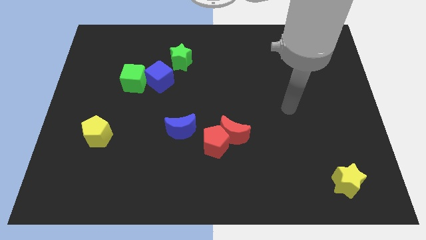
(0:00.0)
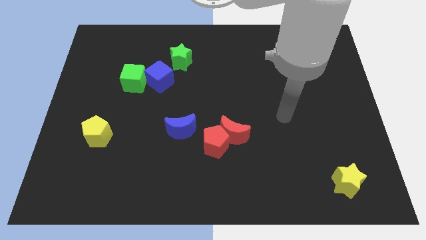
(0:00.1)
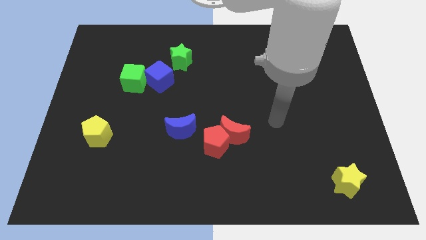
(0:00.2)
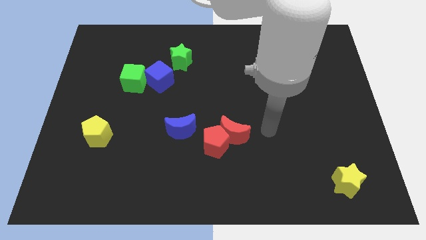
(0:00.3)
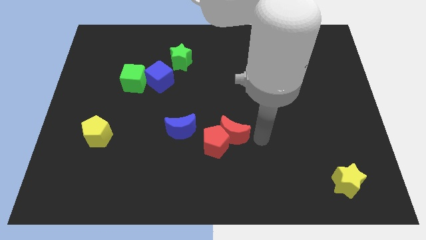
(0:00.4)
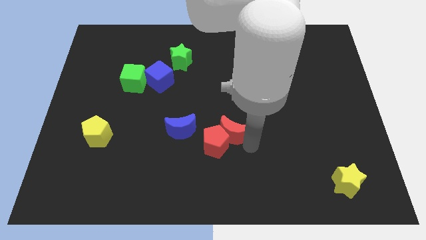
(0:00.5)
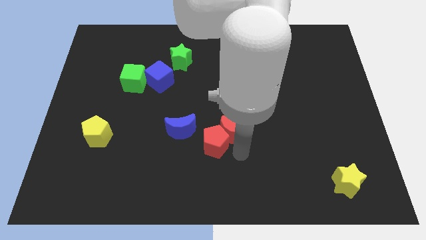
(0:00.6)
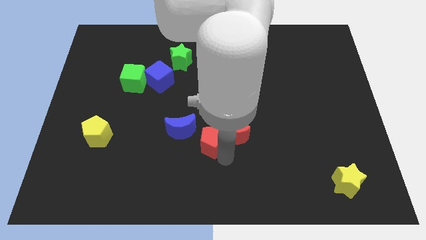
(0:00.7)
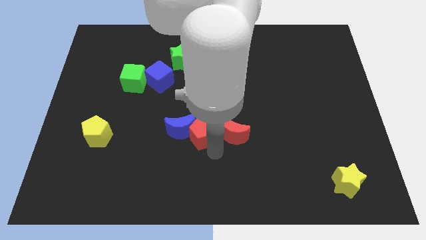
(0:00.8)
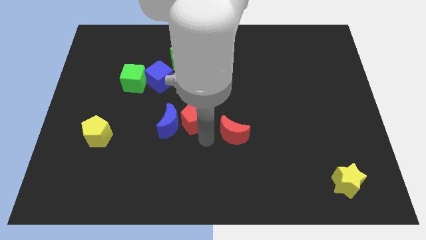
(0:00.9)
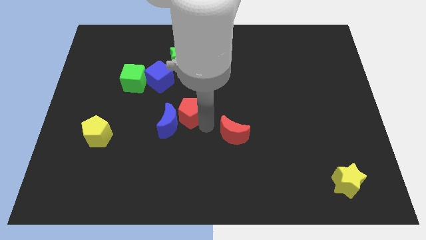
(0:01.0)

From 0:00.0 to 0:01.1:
separate the red moon from the red pentagon

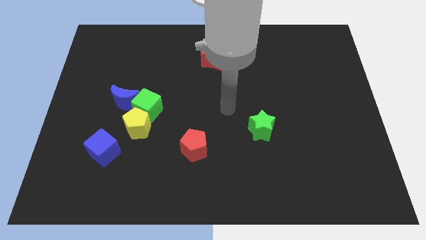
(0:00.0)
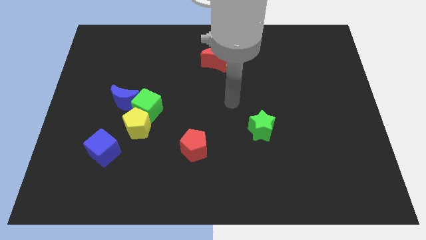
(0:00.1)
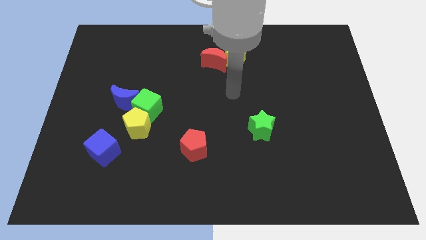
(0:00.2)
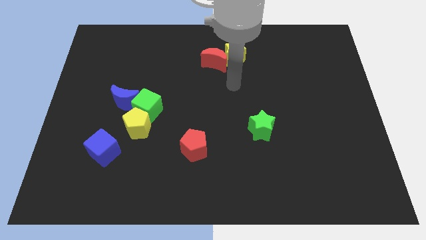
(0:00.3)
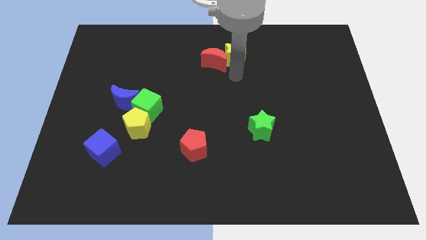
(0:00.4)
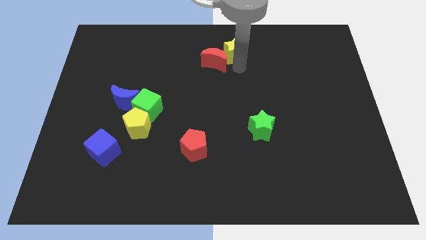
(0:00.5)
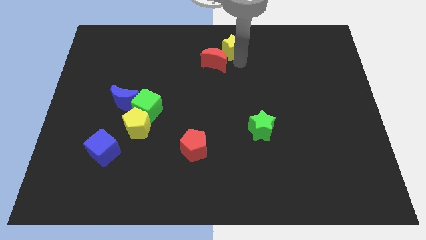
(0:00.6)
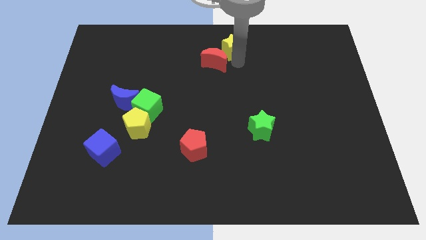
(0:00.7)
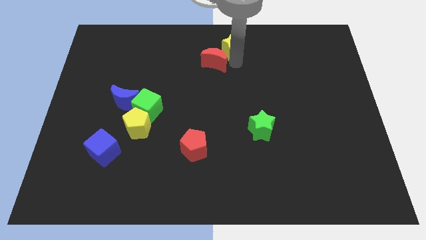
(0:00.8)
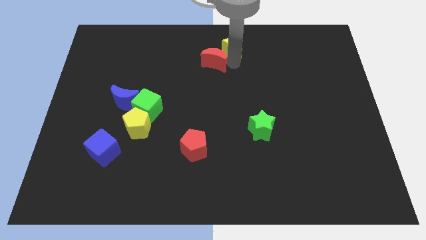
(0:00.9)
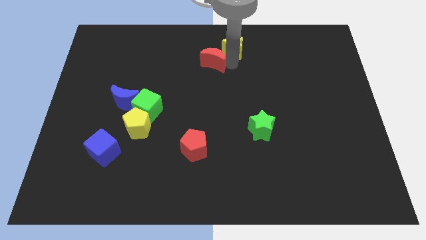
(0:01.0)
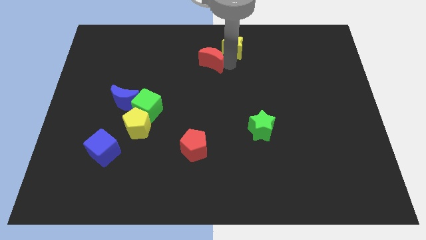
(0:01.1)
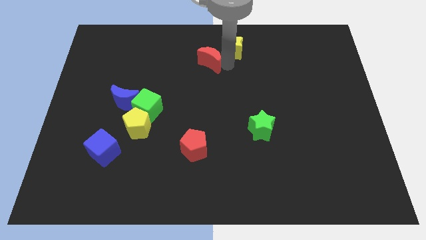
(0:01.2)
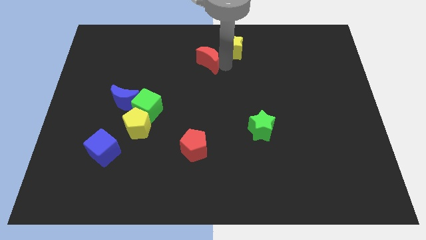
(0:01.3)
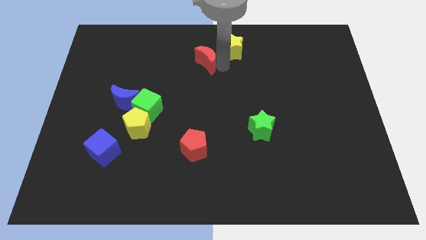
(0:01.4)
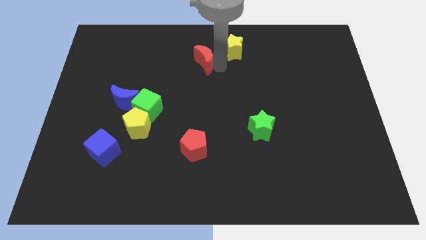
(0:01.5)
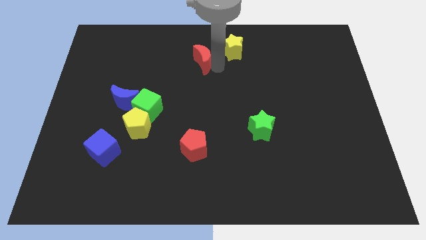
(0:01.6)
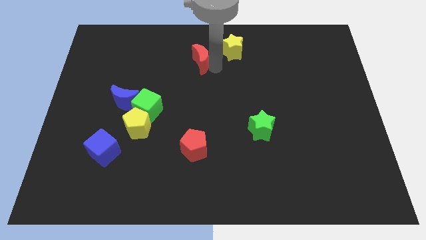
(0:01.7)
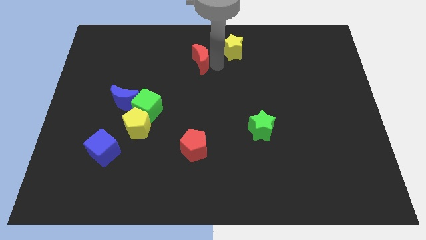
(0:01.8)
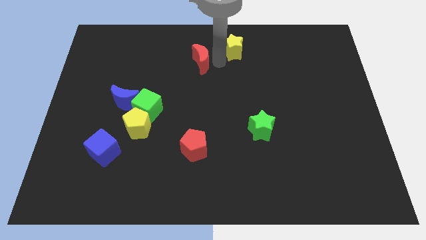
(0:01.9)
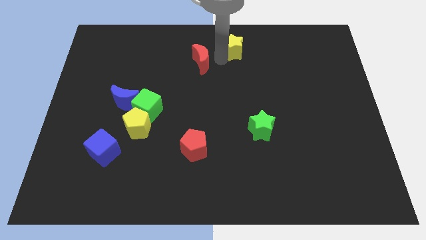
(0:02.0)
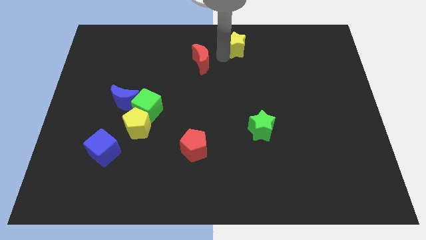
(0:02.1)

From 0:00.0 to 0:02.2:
separate the red moon from the yellow star

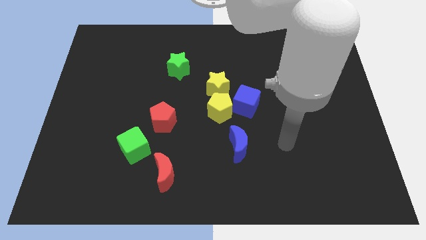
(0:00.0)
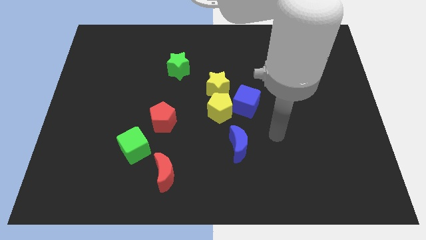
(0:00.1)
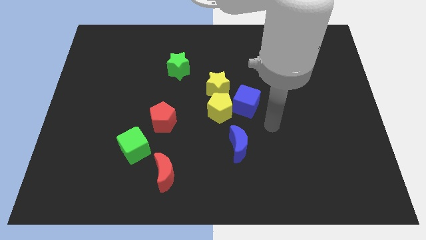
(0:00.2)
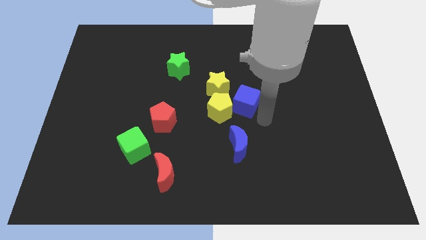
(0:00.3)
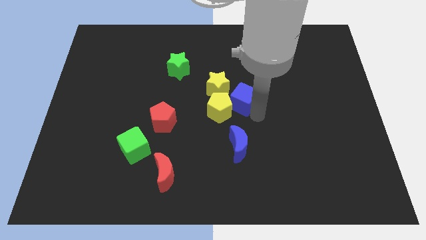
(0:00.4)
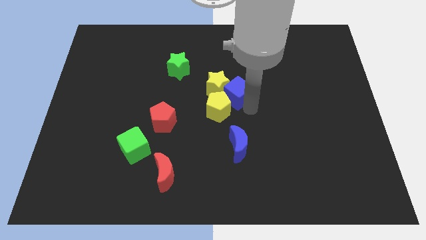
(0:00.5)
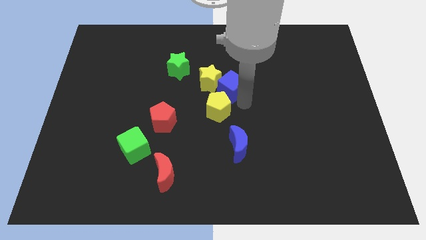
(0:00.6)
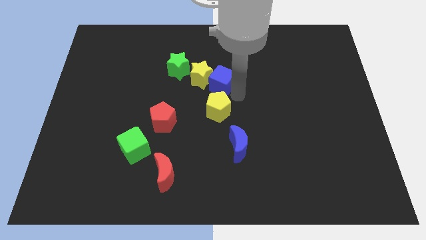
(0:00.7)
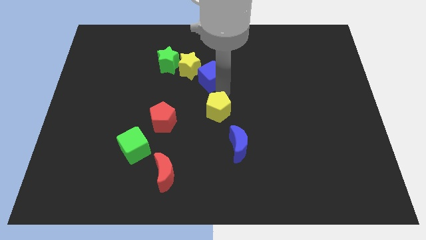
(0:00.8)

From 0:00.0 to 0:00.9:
separate the yellow pentagon from the blue cube and yellow star

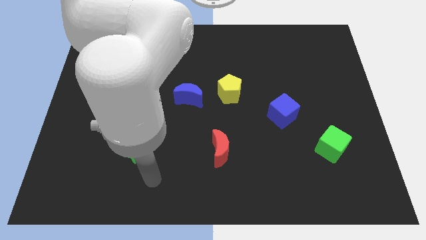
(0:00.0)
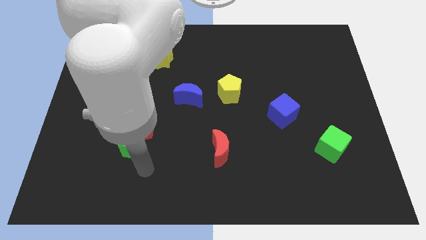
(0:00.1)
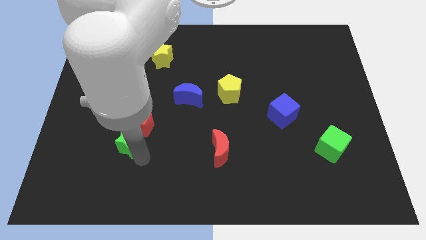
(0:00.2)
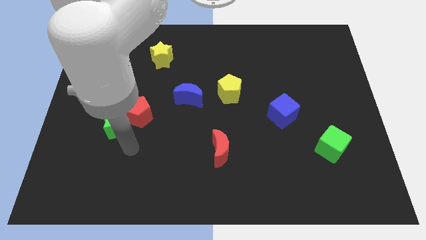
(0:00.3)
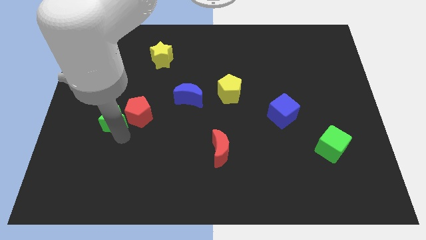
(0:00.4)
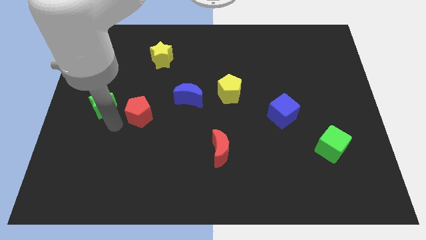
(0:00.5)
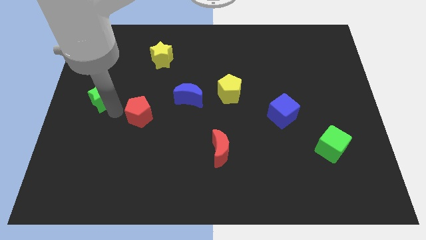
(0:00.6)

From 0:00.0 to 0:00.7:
separate the red pentagon from the green star

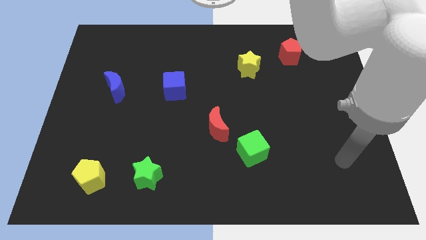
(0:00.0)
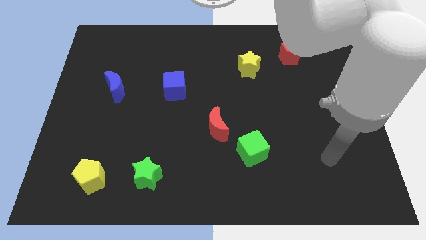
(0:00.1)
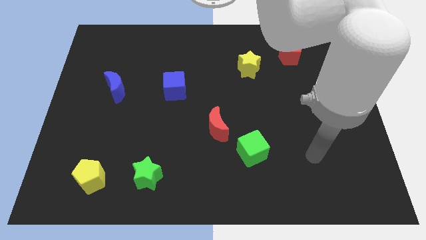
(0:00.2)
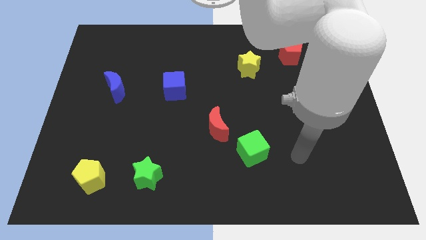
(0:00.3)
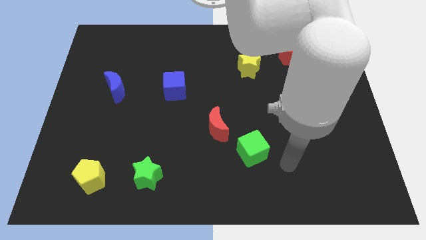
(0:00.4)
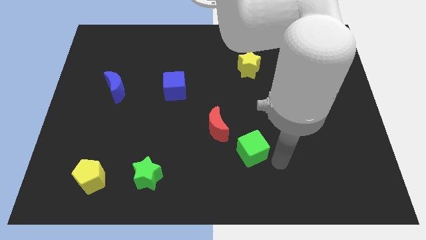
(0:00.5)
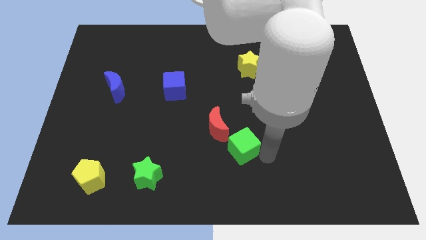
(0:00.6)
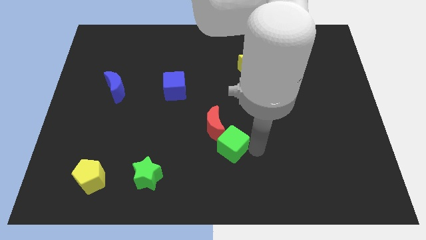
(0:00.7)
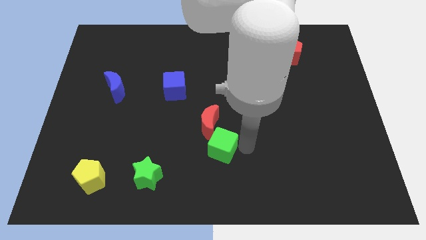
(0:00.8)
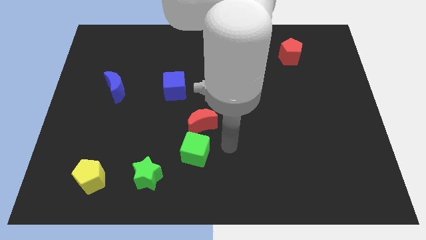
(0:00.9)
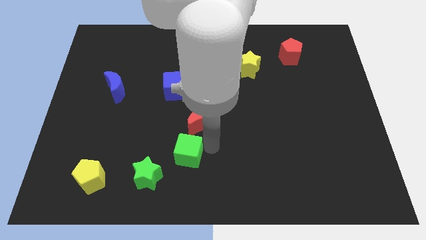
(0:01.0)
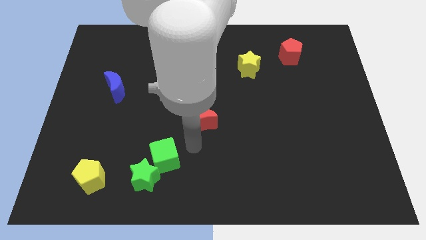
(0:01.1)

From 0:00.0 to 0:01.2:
move the red moon away from the green cube

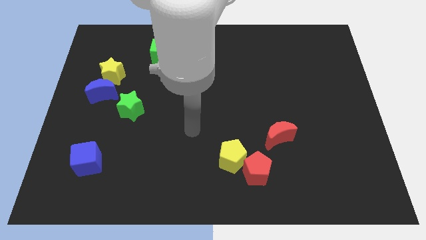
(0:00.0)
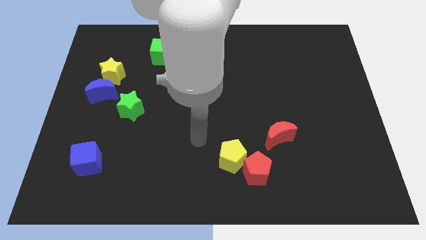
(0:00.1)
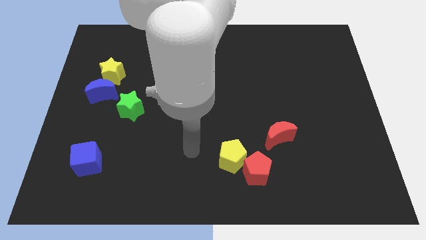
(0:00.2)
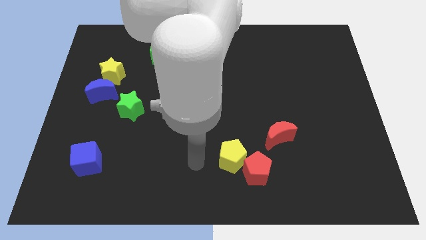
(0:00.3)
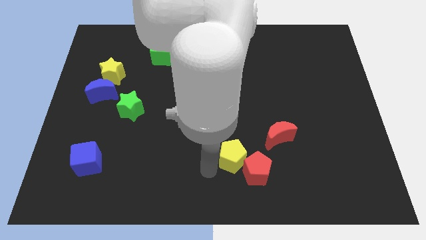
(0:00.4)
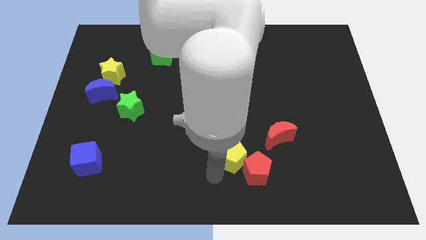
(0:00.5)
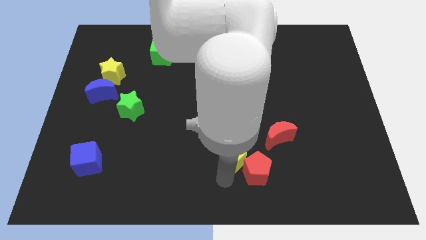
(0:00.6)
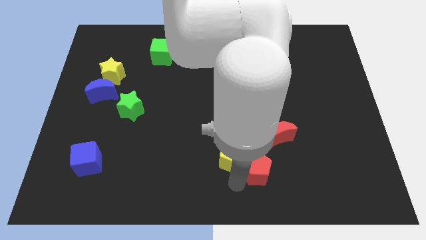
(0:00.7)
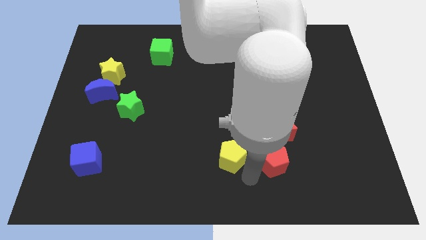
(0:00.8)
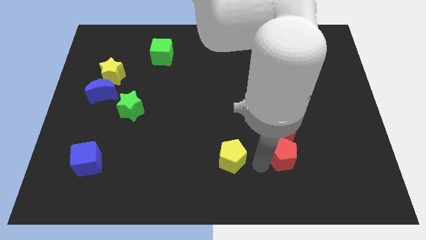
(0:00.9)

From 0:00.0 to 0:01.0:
move the yellow pentagon away from the red pentagon

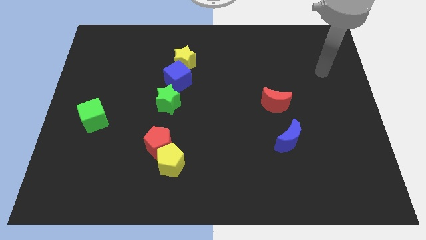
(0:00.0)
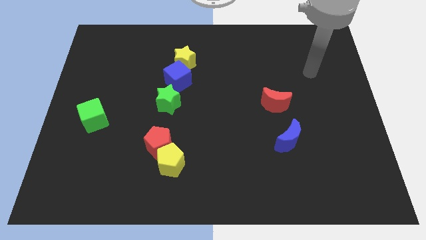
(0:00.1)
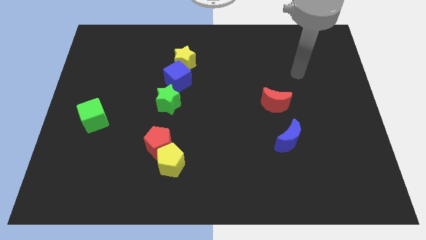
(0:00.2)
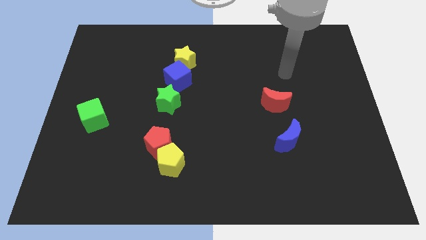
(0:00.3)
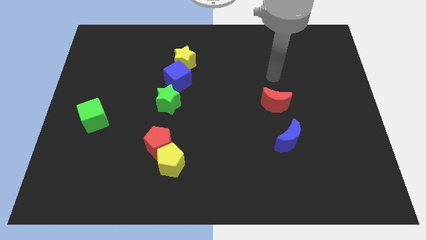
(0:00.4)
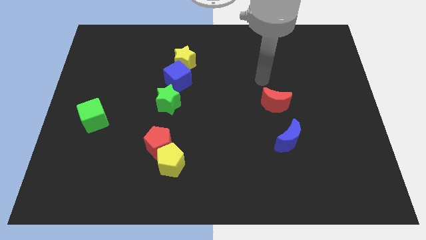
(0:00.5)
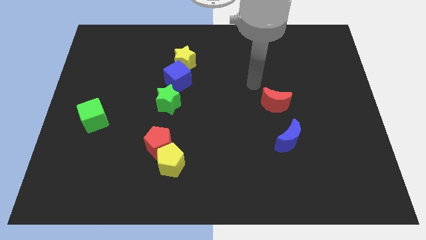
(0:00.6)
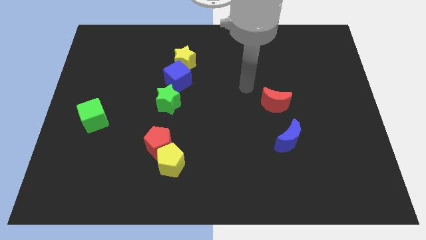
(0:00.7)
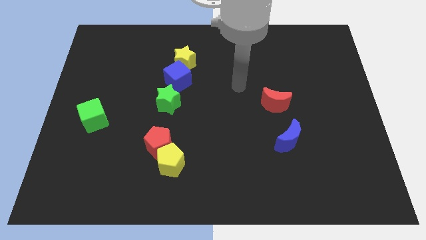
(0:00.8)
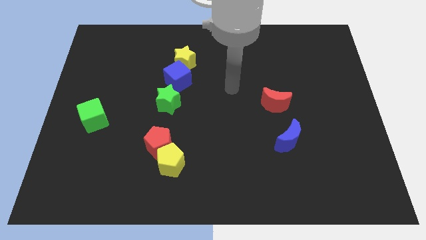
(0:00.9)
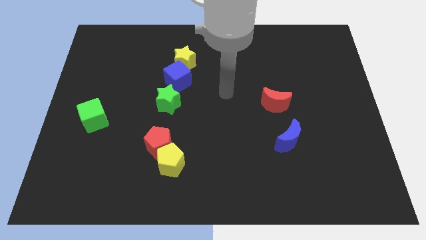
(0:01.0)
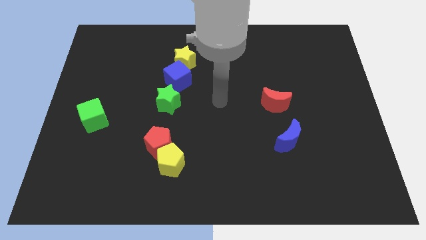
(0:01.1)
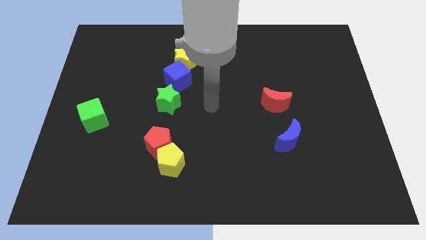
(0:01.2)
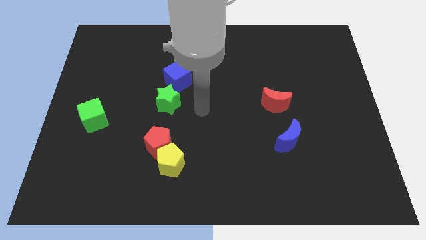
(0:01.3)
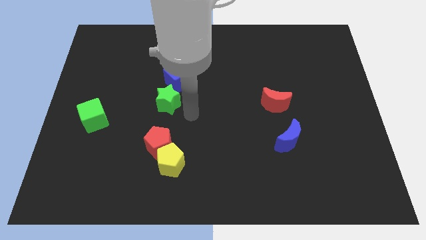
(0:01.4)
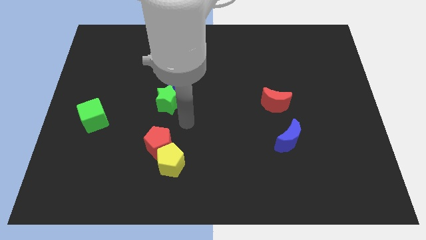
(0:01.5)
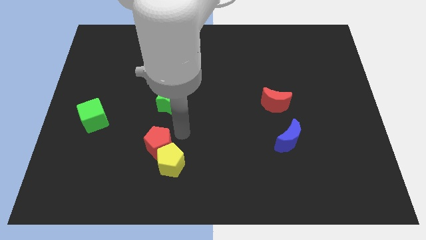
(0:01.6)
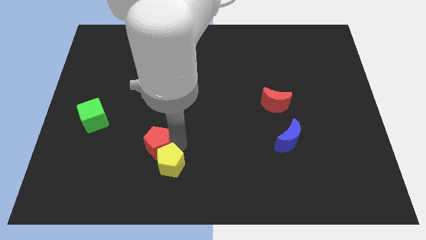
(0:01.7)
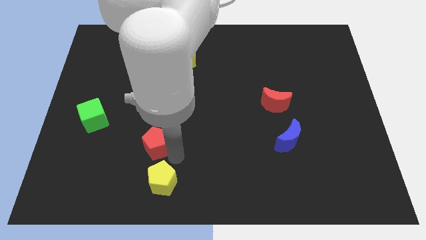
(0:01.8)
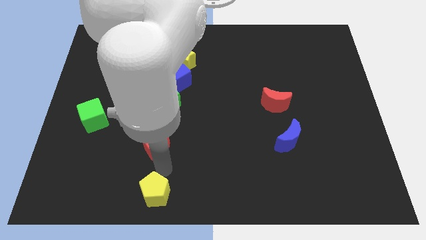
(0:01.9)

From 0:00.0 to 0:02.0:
pull the red pentagon apart from the yellow pentagon

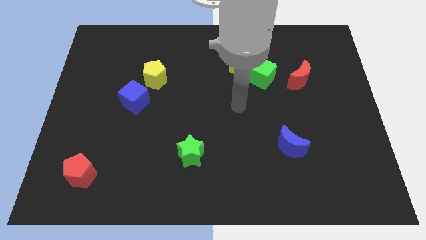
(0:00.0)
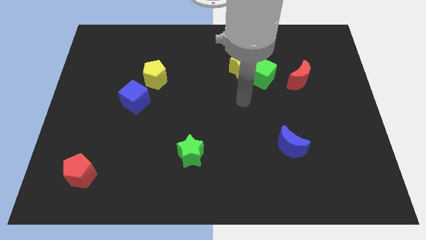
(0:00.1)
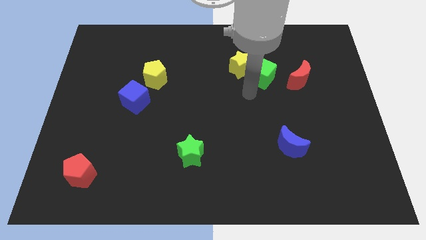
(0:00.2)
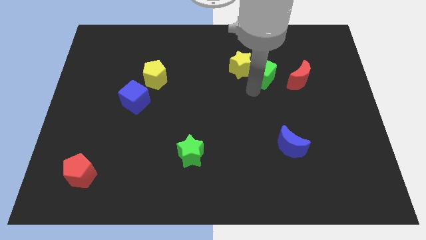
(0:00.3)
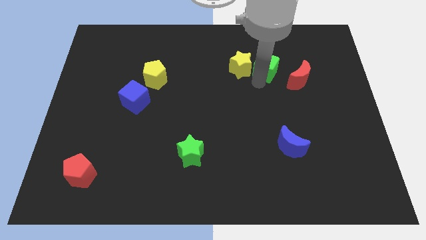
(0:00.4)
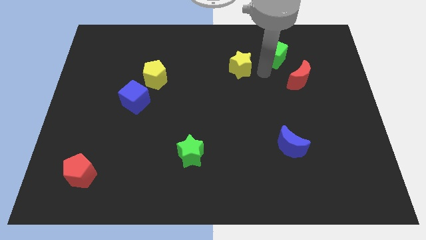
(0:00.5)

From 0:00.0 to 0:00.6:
separate the yellow star from the green cube
